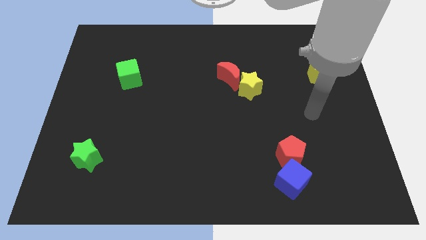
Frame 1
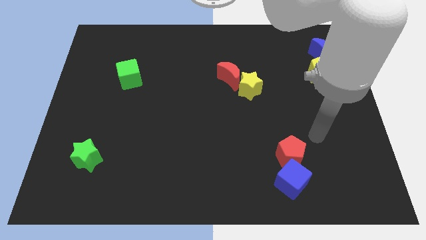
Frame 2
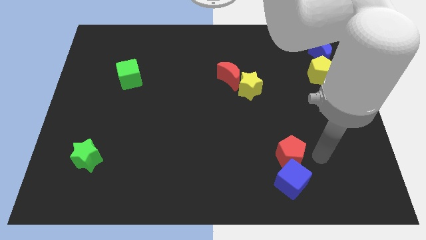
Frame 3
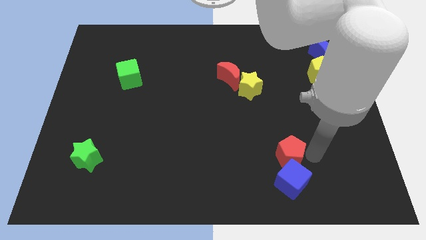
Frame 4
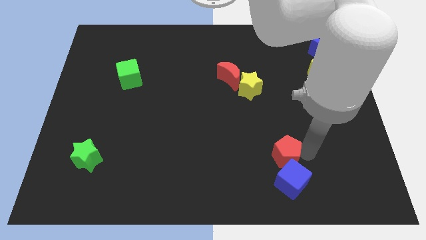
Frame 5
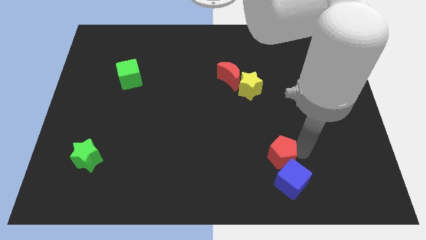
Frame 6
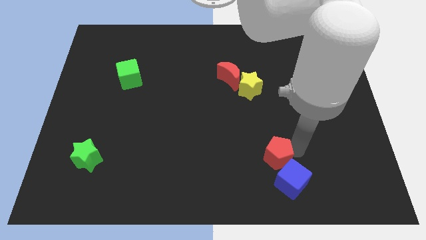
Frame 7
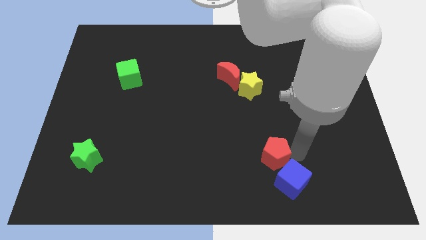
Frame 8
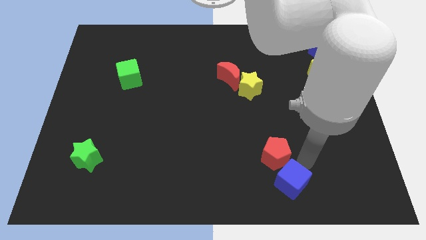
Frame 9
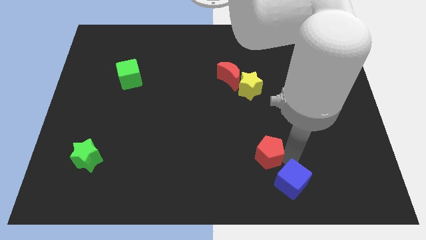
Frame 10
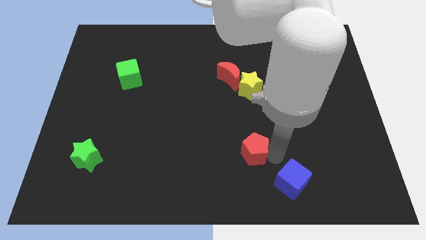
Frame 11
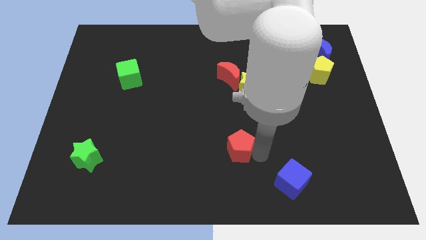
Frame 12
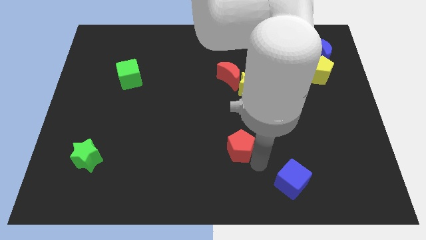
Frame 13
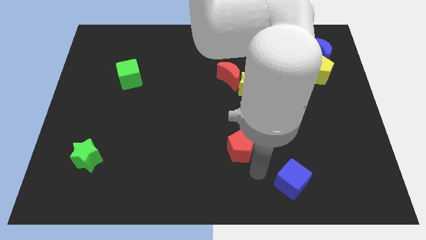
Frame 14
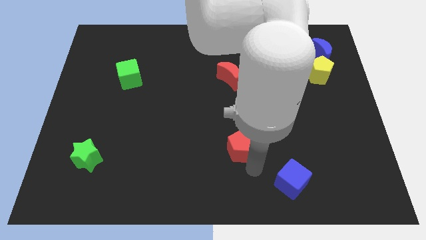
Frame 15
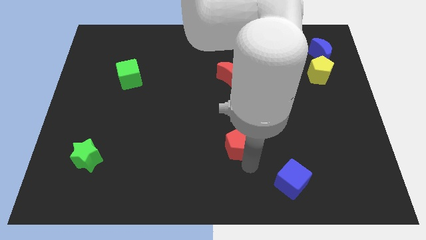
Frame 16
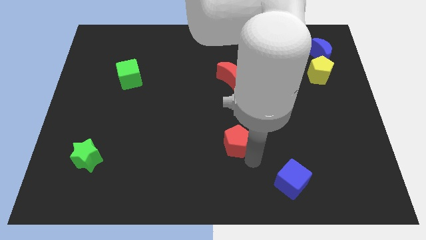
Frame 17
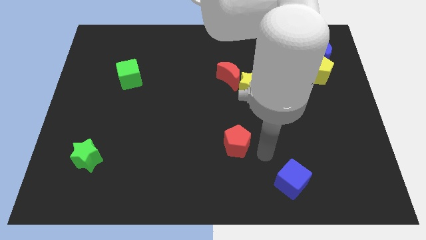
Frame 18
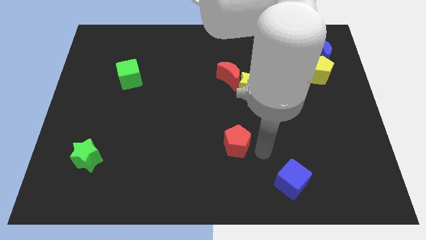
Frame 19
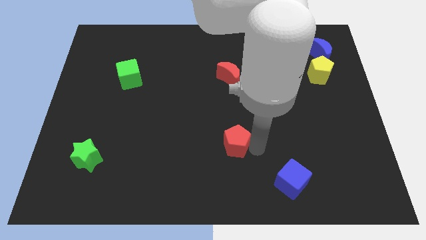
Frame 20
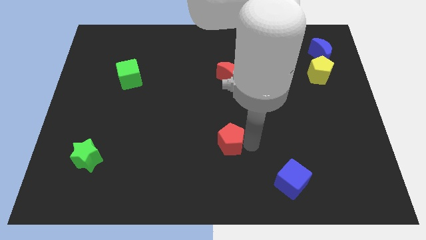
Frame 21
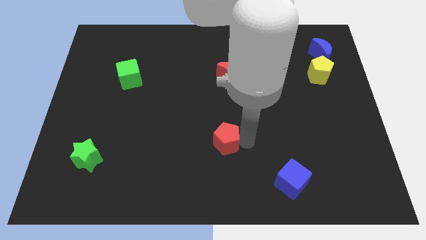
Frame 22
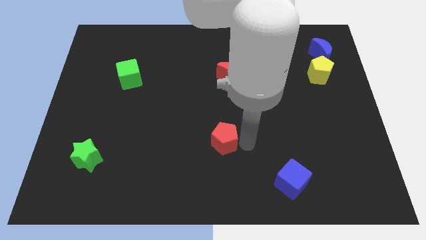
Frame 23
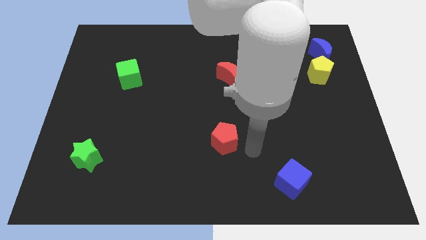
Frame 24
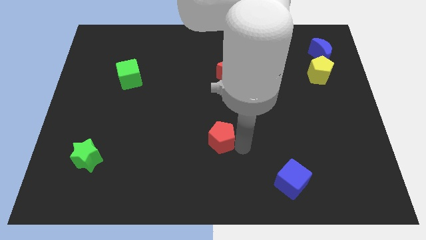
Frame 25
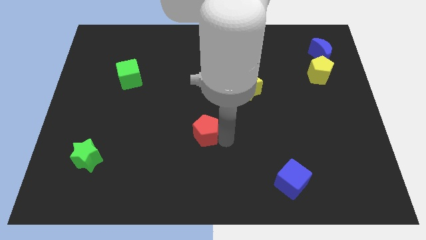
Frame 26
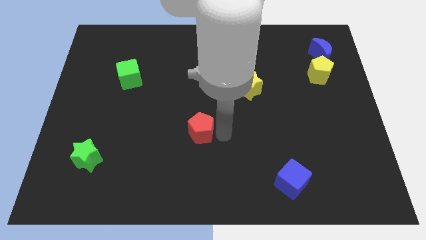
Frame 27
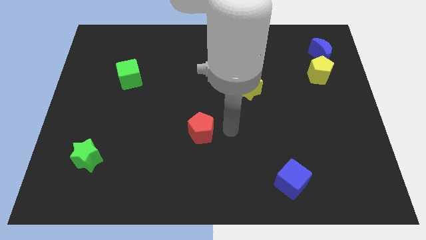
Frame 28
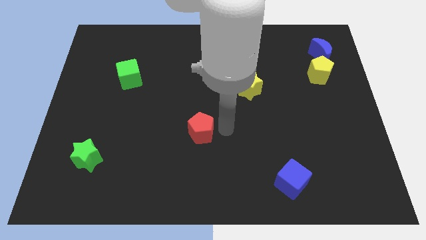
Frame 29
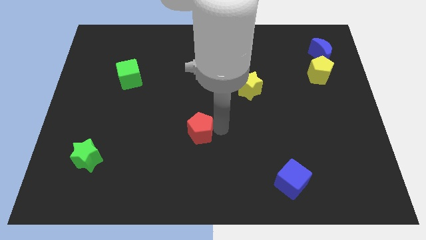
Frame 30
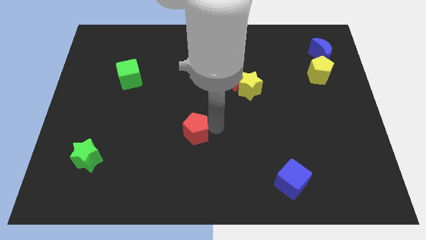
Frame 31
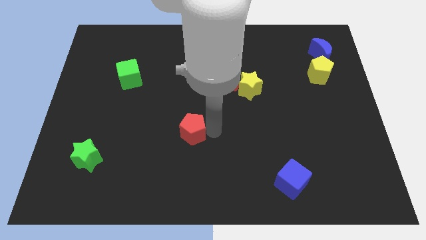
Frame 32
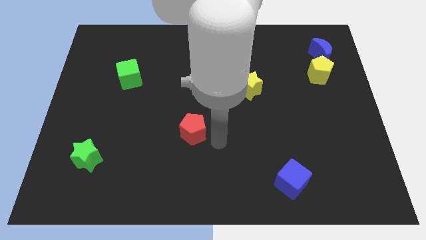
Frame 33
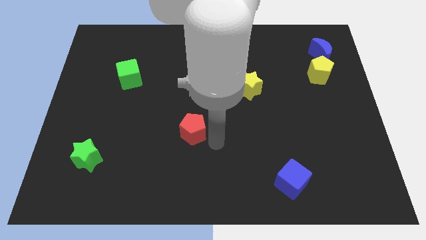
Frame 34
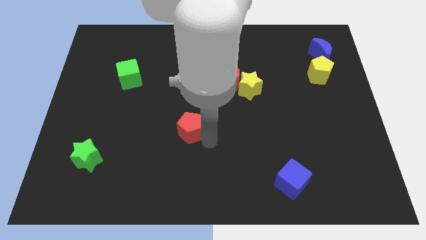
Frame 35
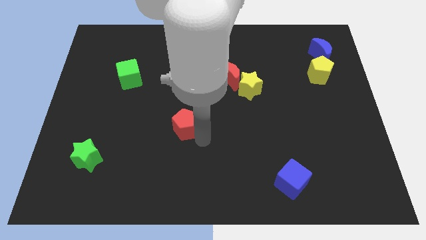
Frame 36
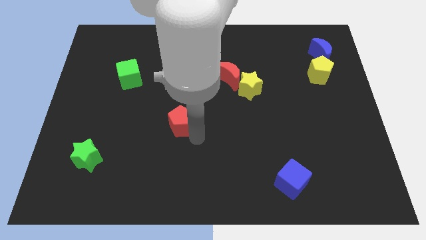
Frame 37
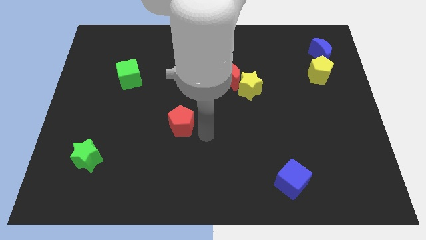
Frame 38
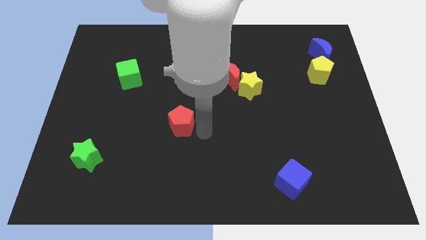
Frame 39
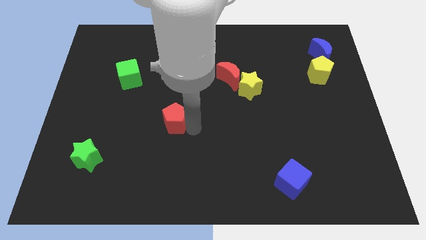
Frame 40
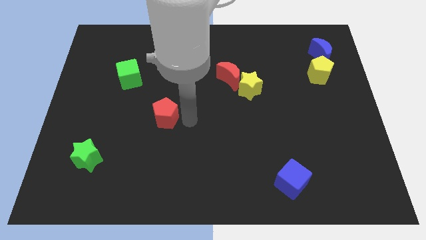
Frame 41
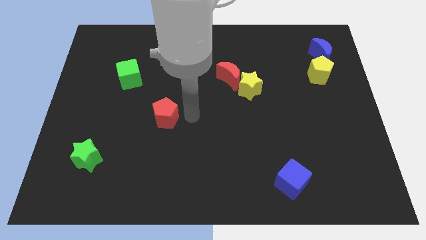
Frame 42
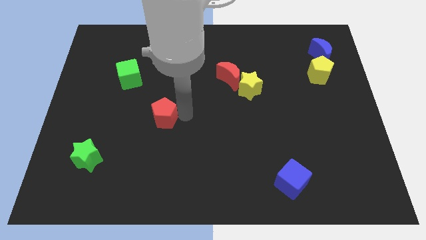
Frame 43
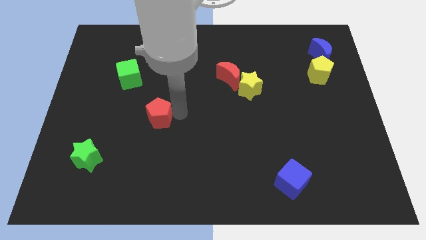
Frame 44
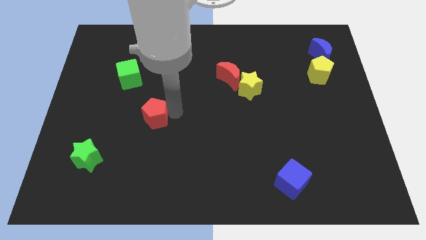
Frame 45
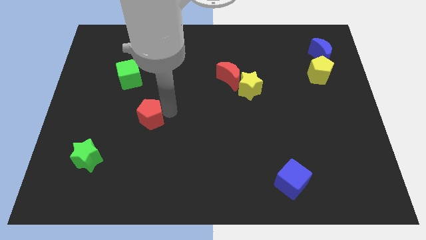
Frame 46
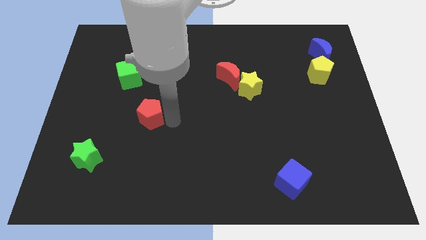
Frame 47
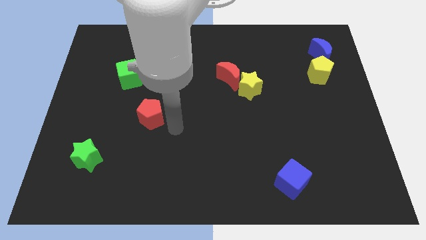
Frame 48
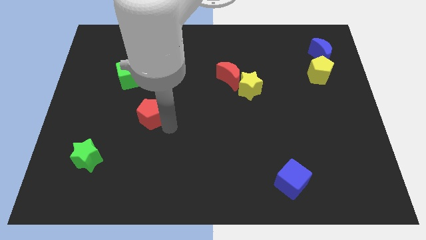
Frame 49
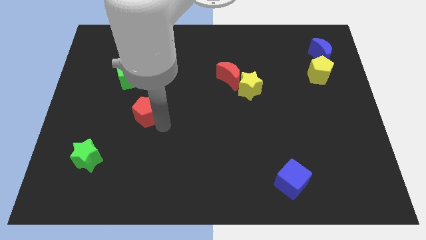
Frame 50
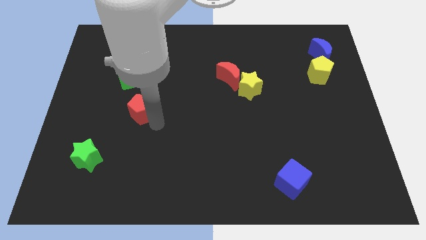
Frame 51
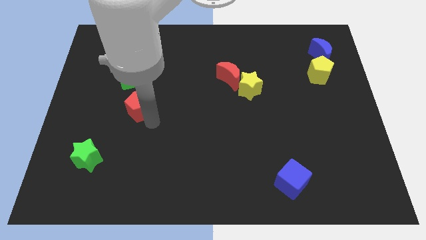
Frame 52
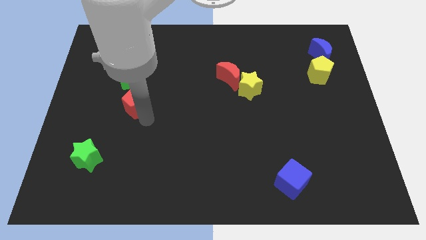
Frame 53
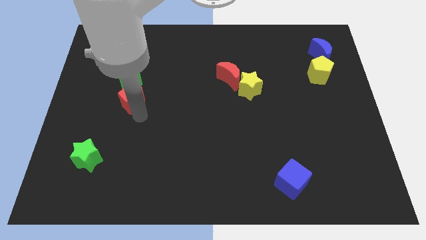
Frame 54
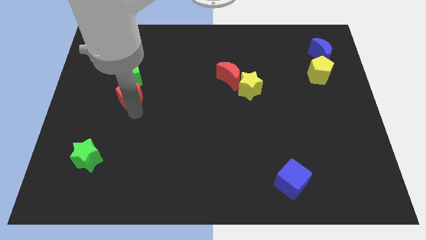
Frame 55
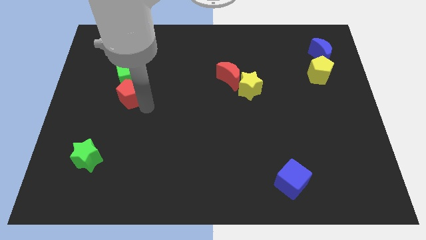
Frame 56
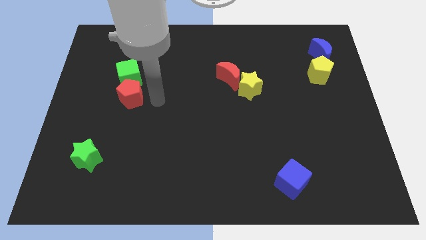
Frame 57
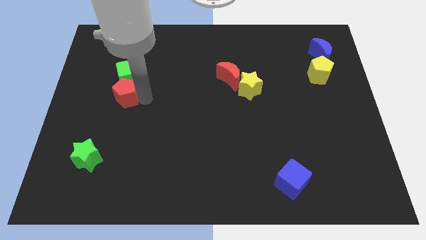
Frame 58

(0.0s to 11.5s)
put the red pentagon to the bottom left side of the green cube

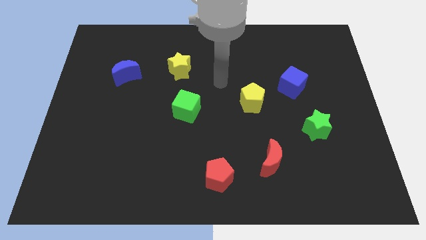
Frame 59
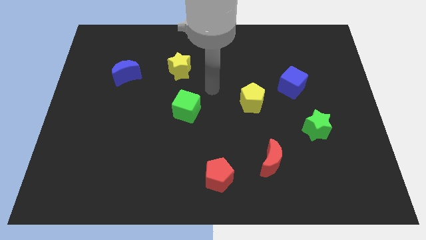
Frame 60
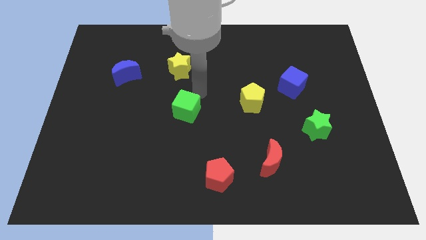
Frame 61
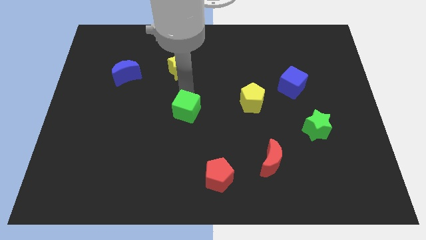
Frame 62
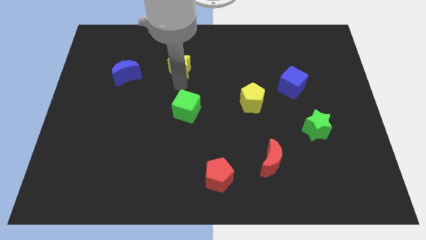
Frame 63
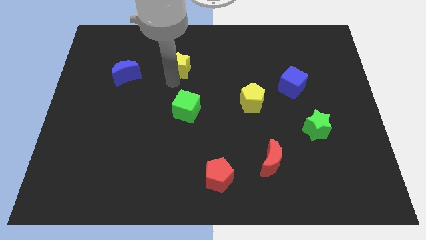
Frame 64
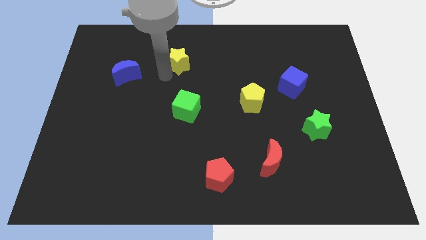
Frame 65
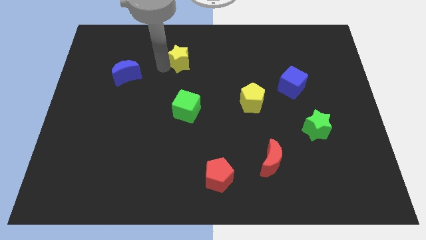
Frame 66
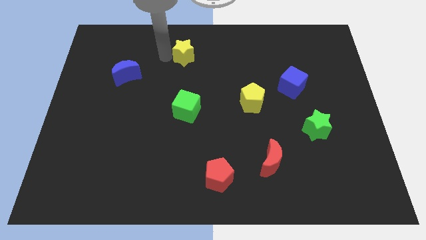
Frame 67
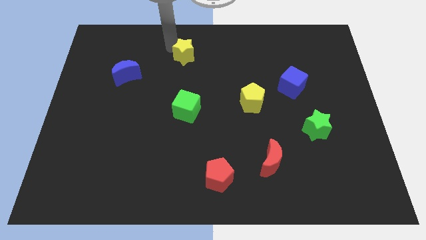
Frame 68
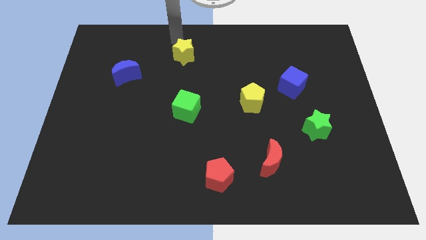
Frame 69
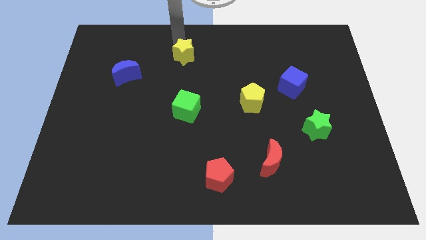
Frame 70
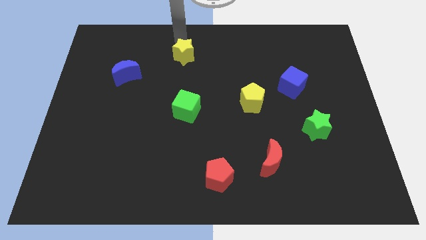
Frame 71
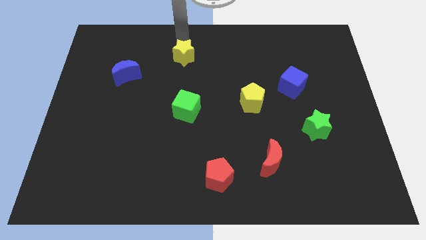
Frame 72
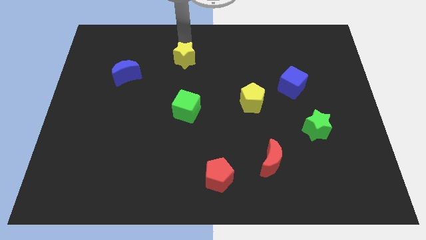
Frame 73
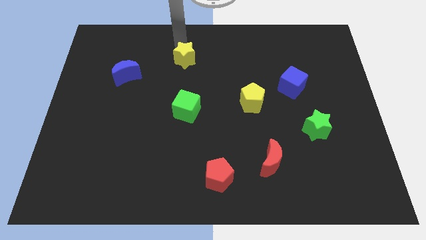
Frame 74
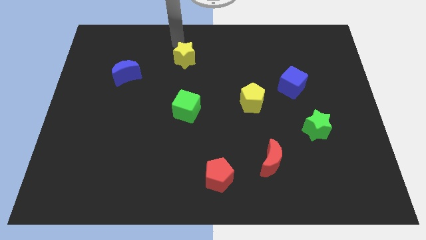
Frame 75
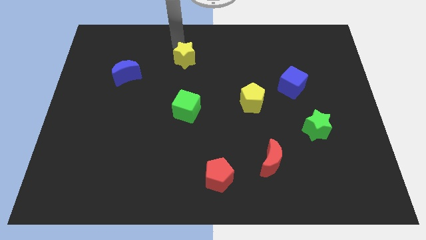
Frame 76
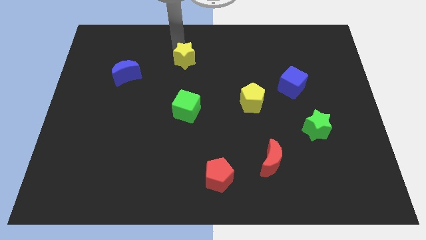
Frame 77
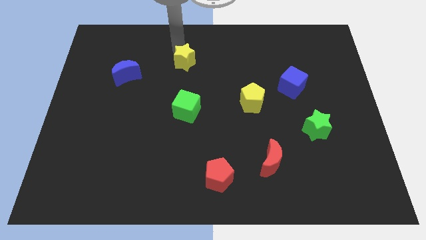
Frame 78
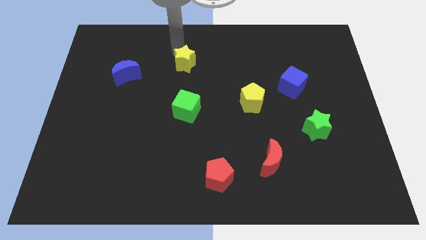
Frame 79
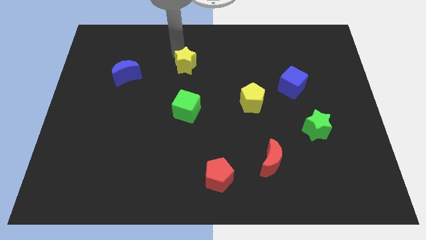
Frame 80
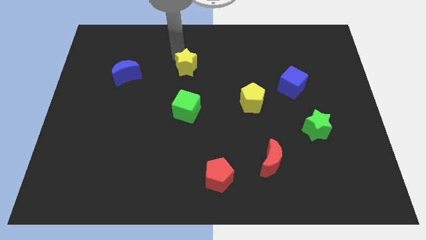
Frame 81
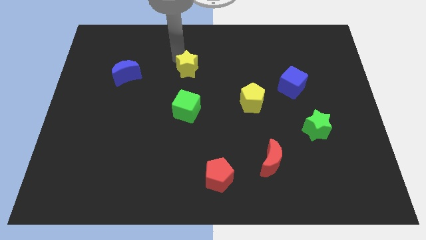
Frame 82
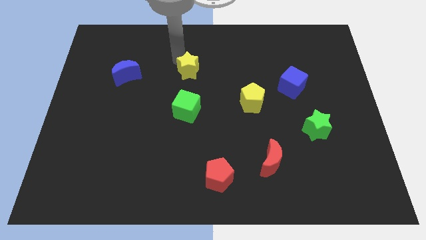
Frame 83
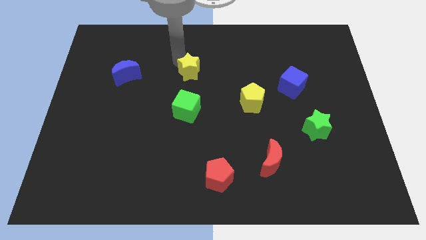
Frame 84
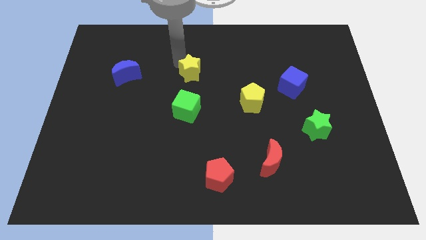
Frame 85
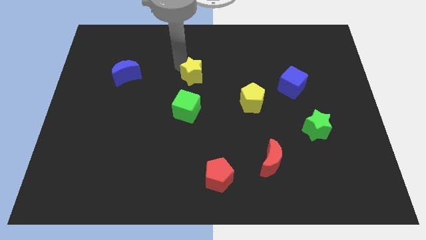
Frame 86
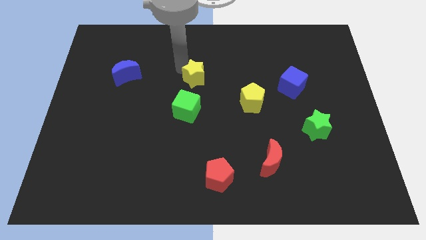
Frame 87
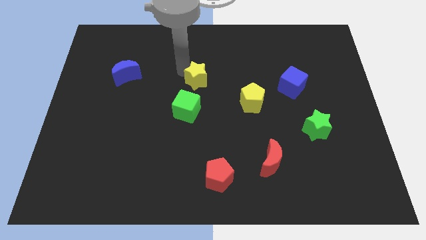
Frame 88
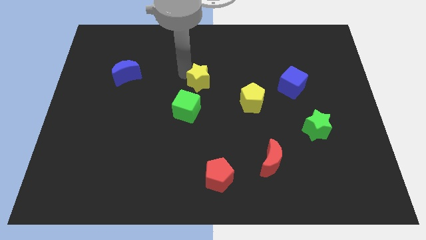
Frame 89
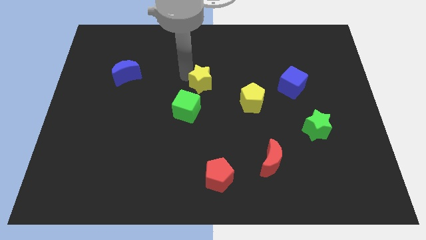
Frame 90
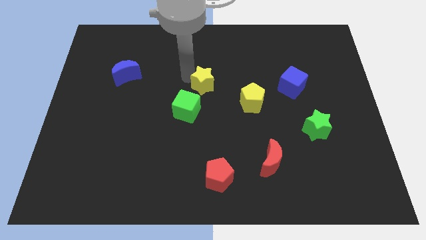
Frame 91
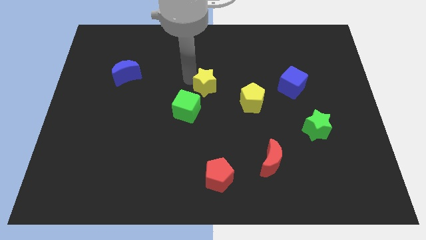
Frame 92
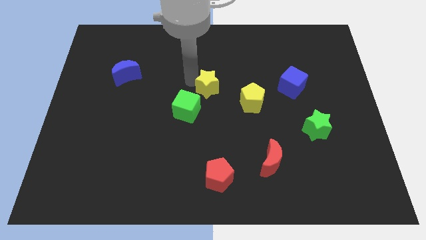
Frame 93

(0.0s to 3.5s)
slide the yellow star diagonally up and to the left of the yellow pentagon
